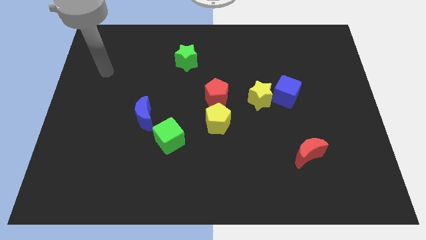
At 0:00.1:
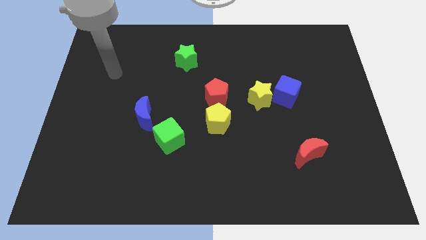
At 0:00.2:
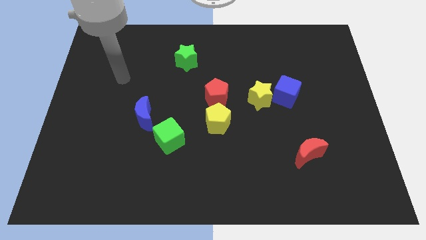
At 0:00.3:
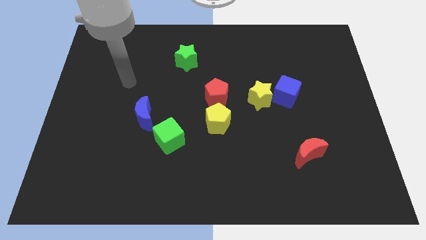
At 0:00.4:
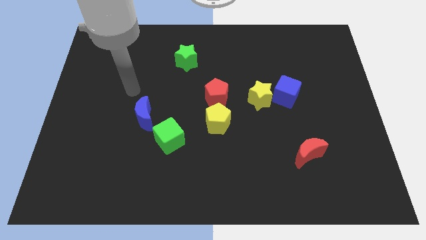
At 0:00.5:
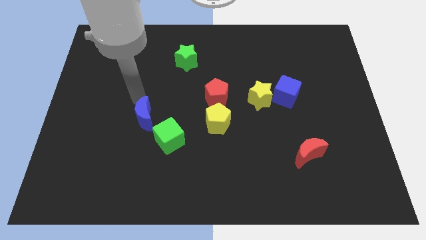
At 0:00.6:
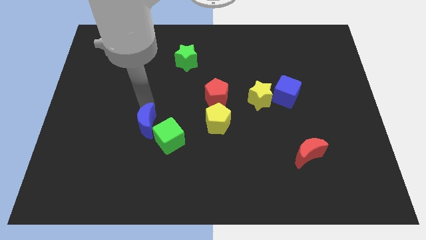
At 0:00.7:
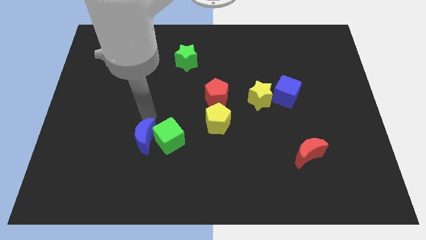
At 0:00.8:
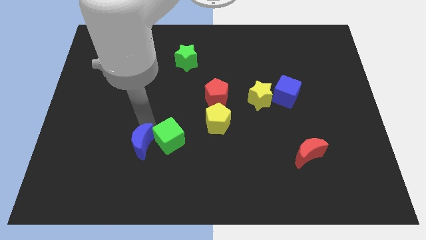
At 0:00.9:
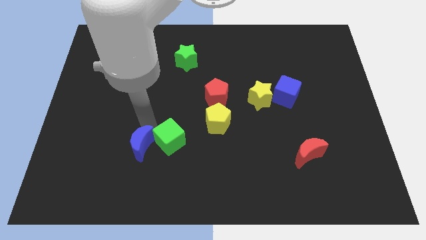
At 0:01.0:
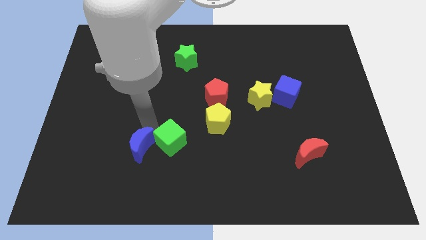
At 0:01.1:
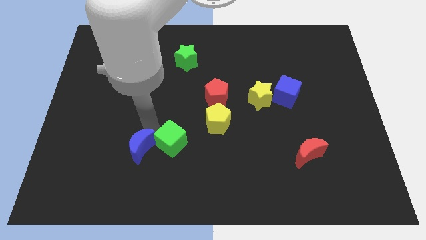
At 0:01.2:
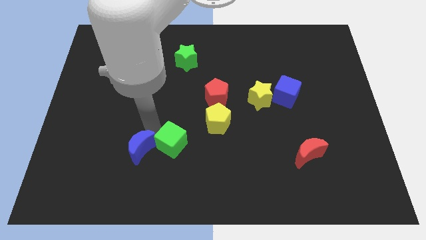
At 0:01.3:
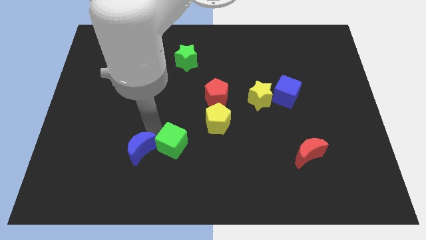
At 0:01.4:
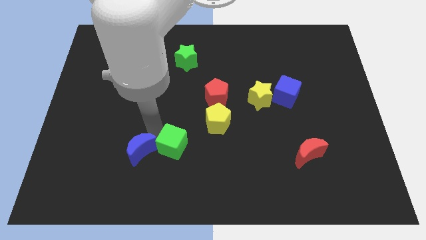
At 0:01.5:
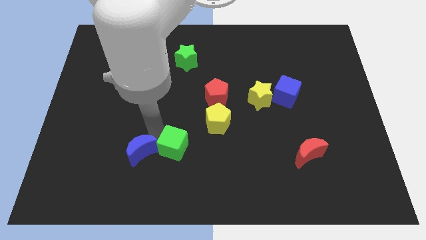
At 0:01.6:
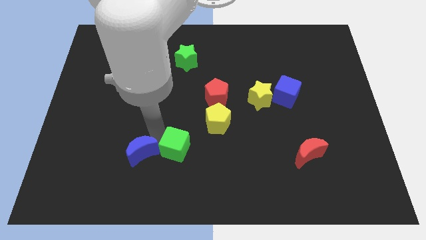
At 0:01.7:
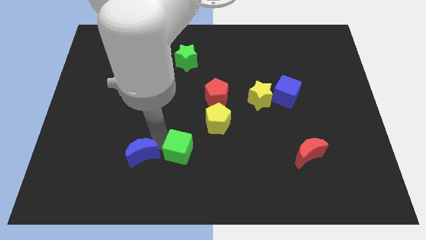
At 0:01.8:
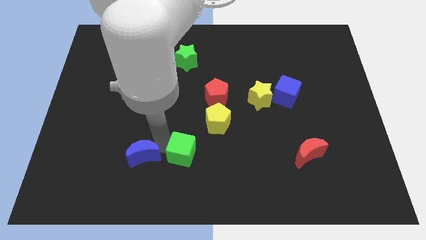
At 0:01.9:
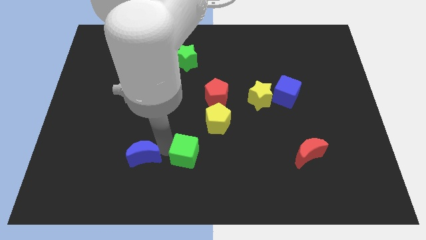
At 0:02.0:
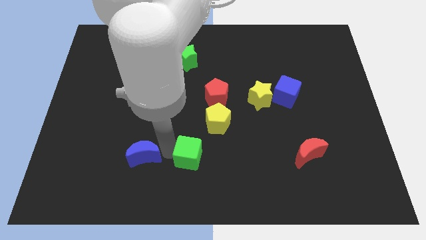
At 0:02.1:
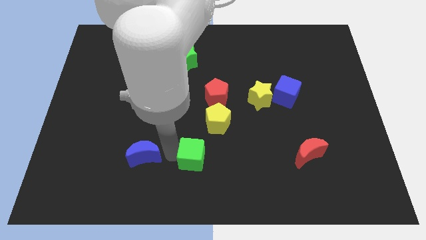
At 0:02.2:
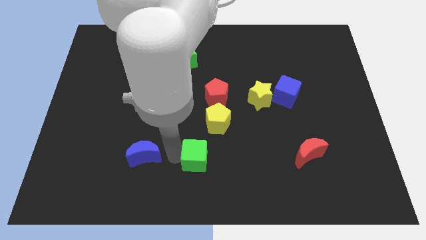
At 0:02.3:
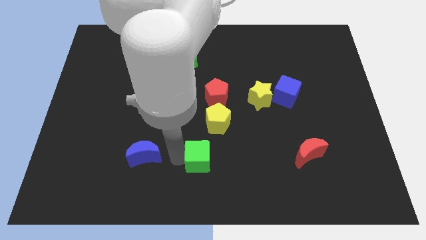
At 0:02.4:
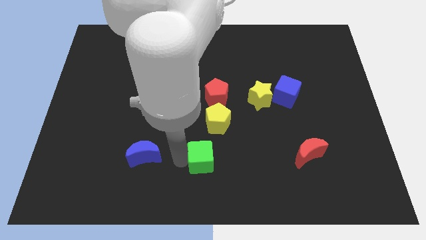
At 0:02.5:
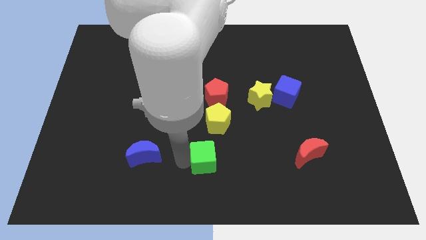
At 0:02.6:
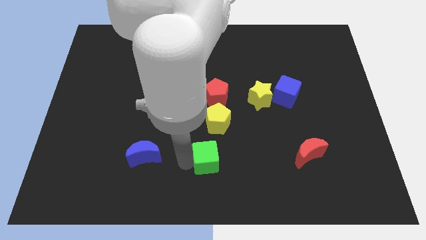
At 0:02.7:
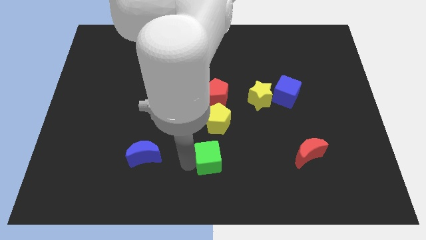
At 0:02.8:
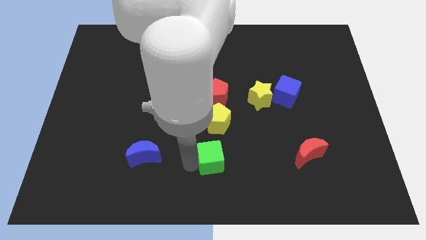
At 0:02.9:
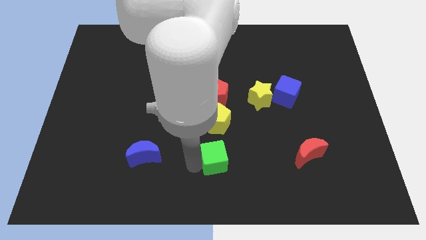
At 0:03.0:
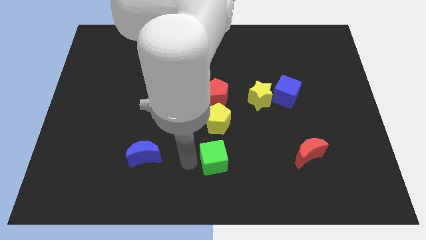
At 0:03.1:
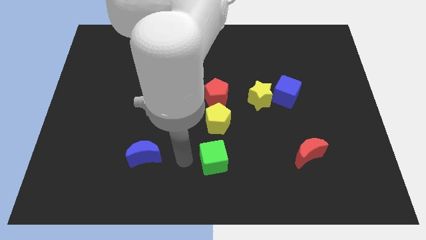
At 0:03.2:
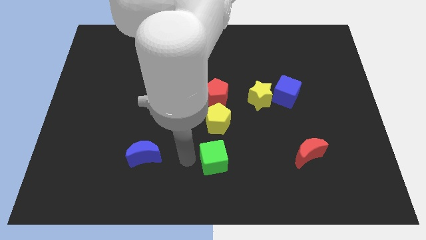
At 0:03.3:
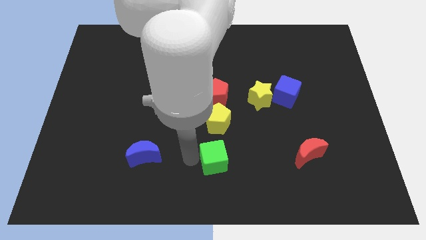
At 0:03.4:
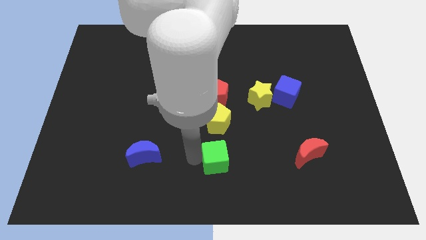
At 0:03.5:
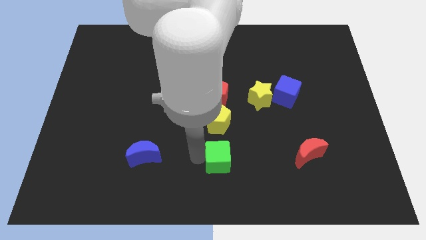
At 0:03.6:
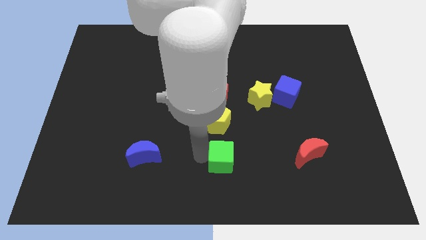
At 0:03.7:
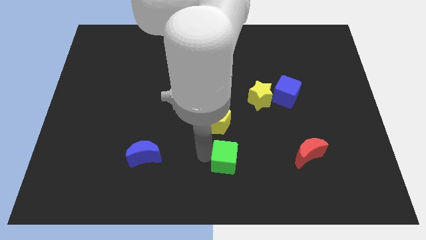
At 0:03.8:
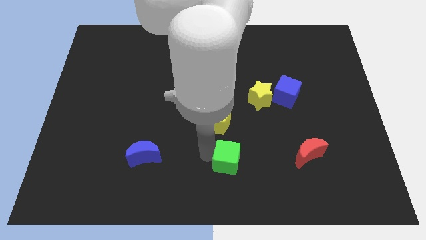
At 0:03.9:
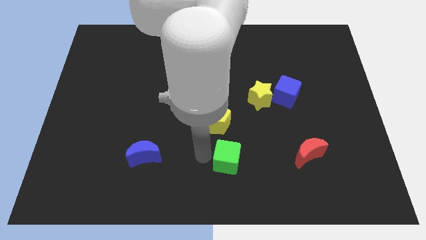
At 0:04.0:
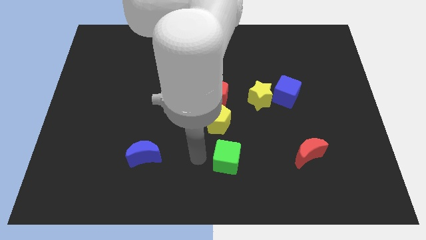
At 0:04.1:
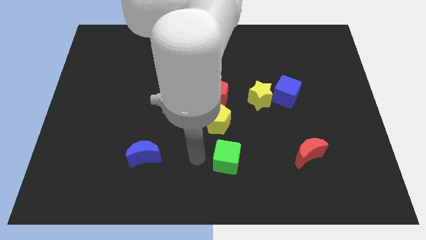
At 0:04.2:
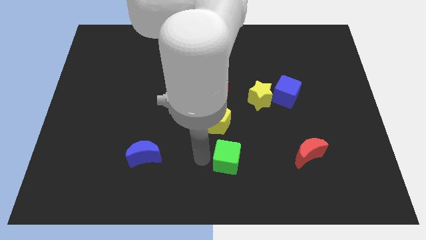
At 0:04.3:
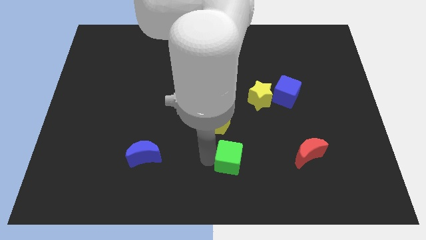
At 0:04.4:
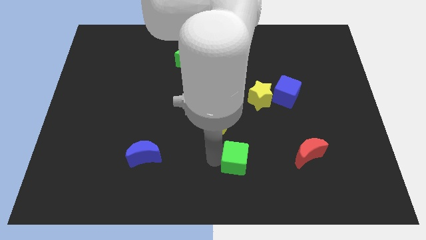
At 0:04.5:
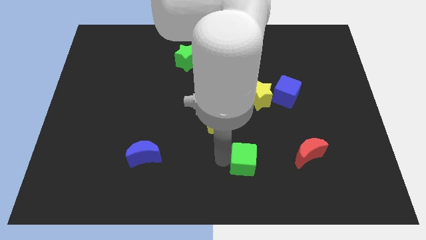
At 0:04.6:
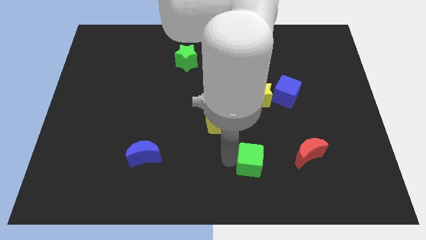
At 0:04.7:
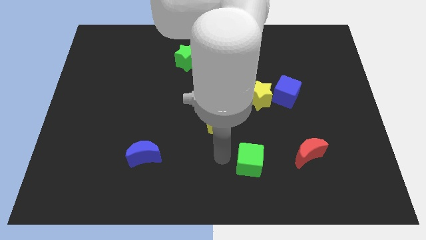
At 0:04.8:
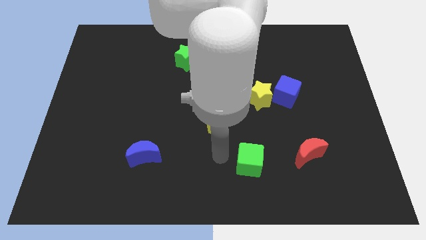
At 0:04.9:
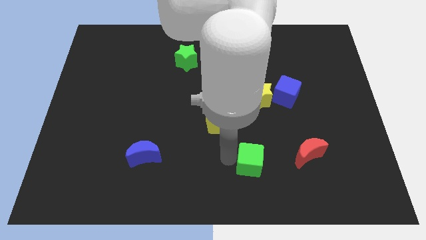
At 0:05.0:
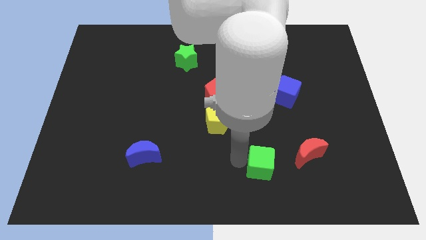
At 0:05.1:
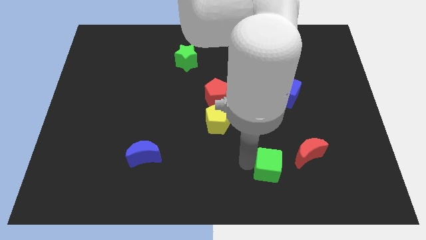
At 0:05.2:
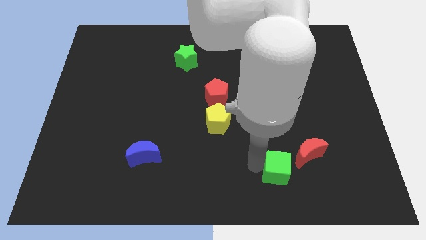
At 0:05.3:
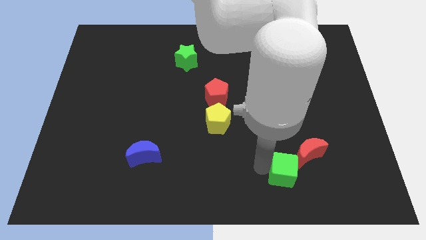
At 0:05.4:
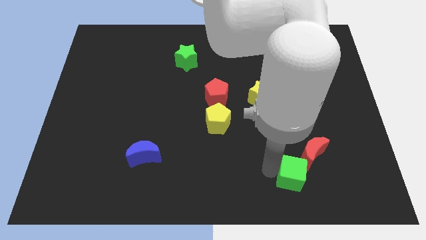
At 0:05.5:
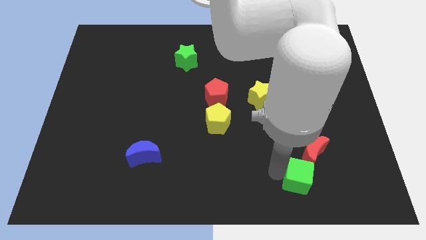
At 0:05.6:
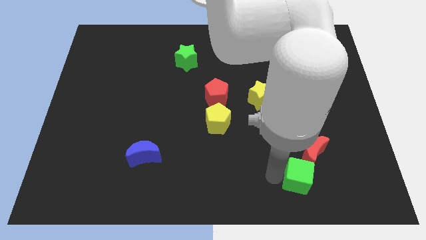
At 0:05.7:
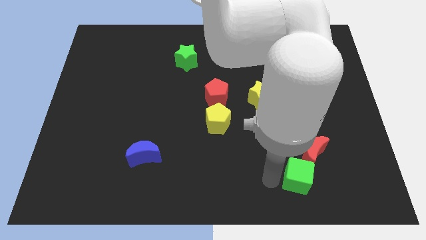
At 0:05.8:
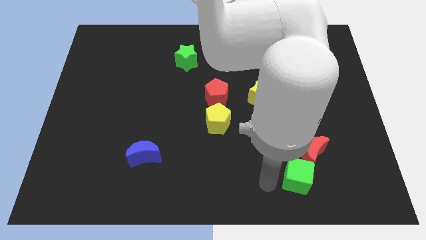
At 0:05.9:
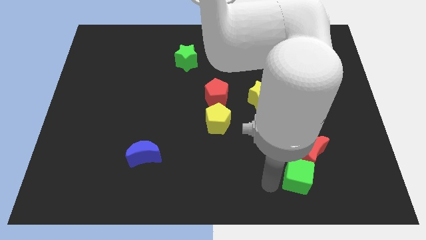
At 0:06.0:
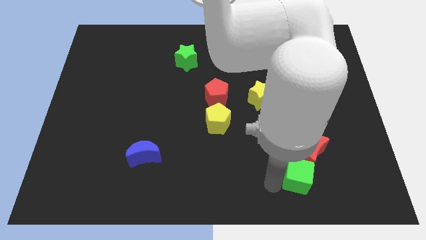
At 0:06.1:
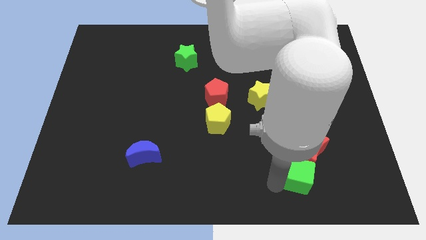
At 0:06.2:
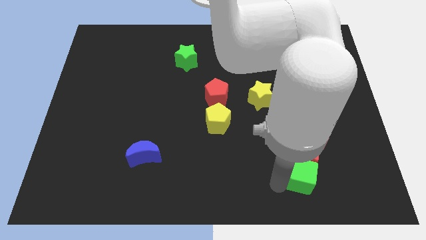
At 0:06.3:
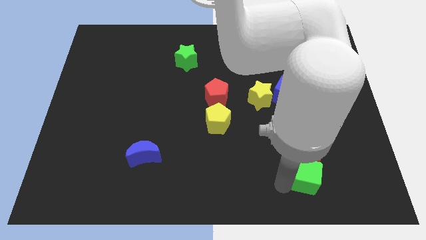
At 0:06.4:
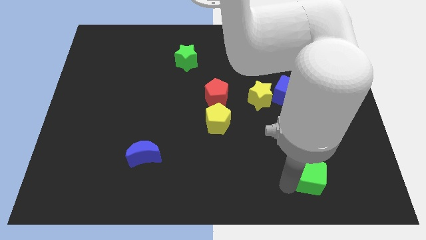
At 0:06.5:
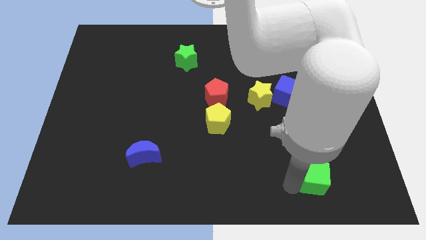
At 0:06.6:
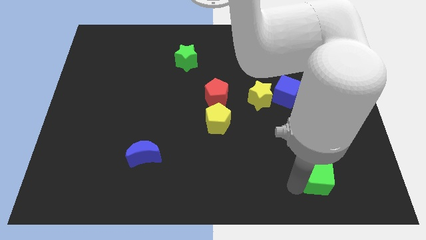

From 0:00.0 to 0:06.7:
move the green cube diagonally down and to the right of the red moon
